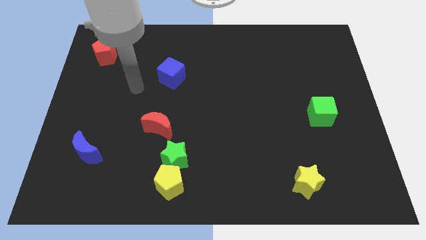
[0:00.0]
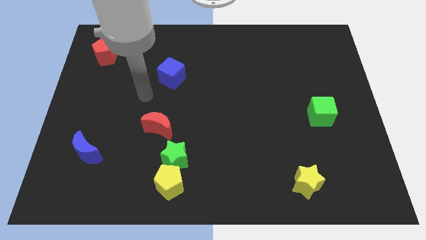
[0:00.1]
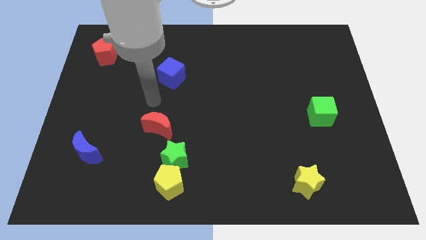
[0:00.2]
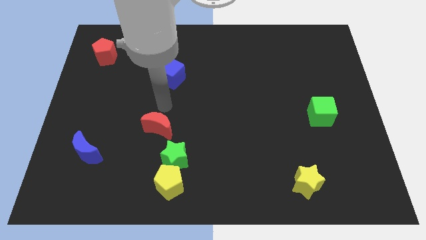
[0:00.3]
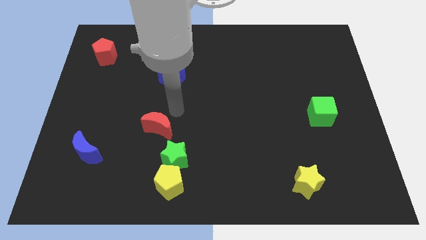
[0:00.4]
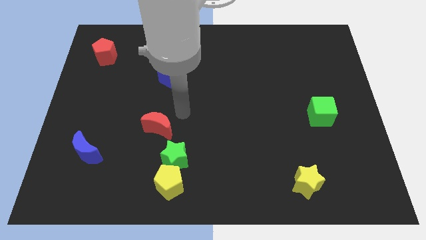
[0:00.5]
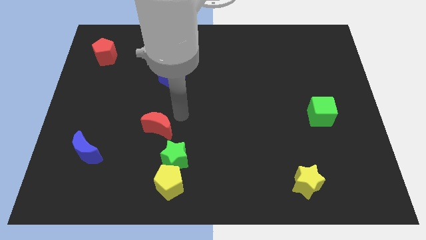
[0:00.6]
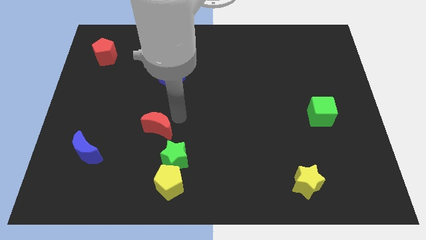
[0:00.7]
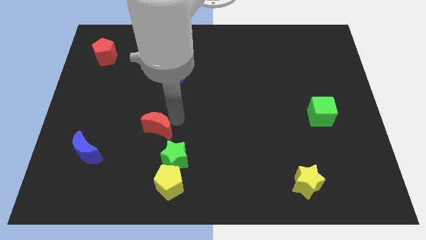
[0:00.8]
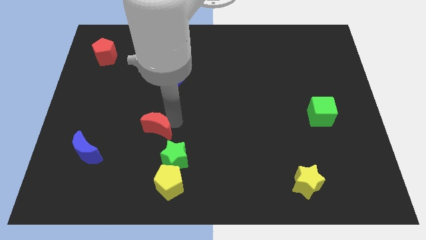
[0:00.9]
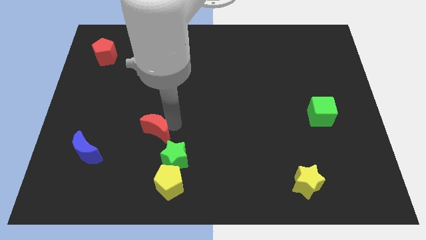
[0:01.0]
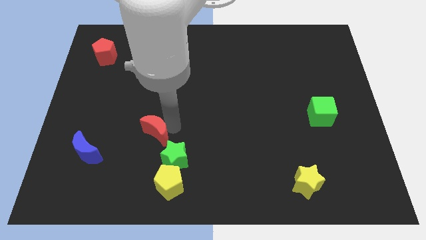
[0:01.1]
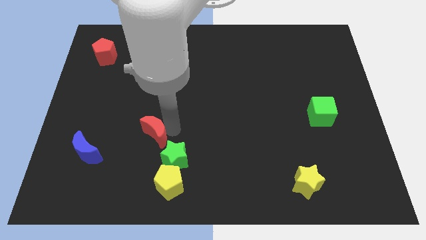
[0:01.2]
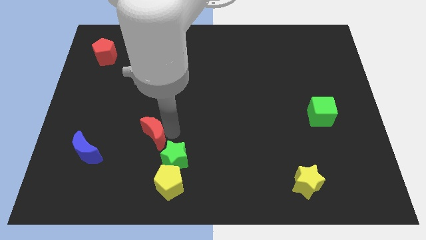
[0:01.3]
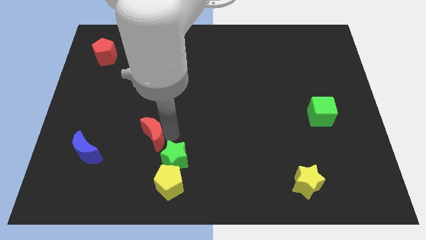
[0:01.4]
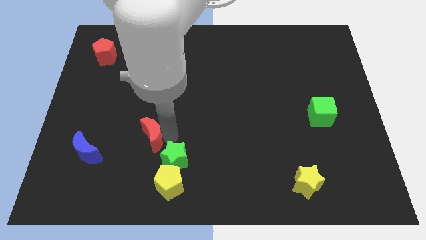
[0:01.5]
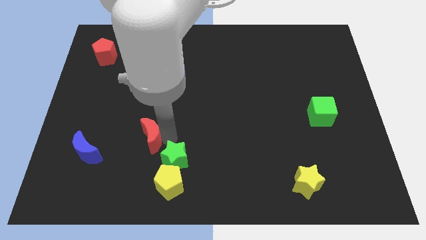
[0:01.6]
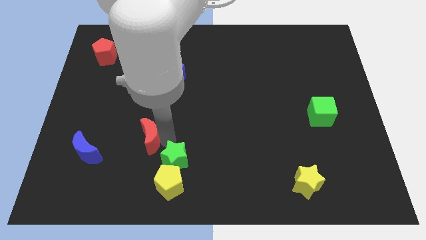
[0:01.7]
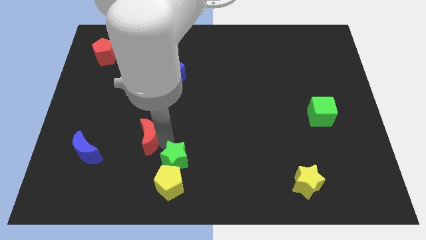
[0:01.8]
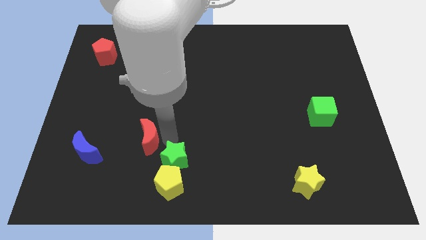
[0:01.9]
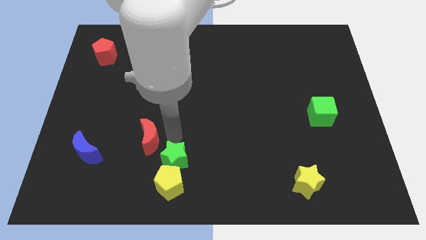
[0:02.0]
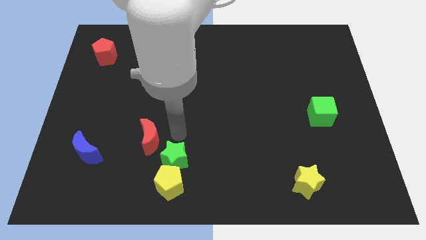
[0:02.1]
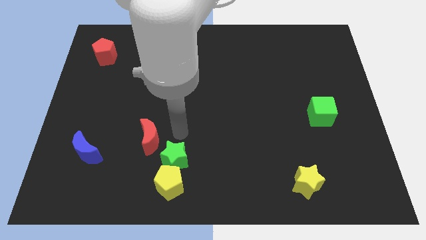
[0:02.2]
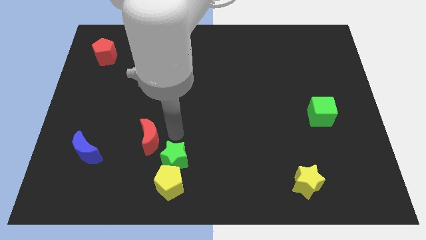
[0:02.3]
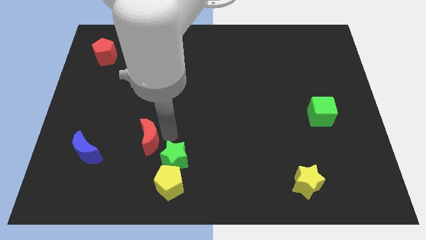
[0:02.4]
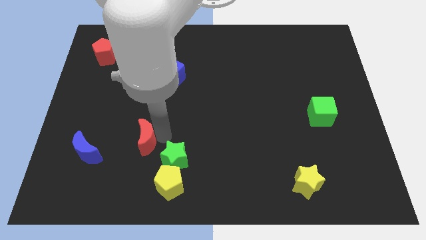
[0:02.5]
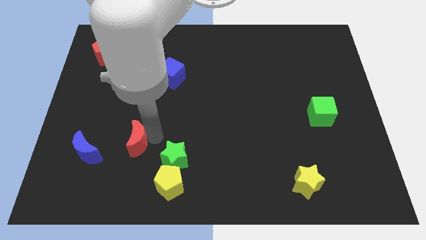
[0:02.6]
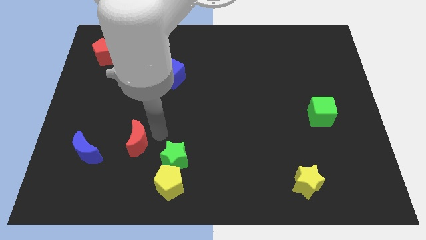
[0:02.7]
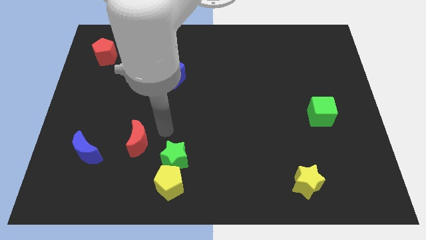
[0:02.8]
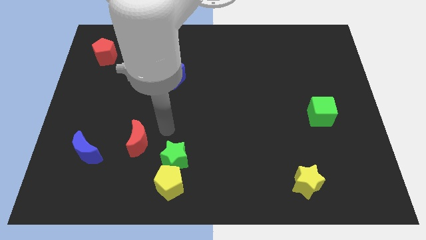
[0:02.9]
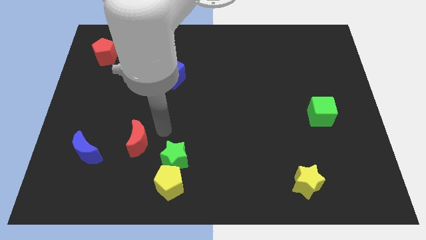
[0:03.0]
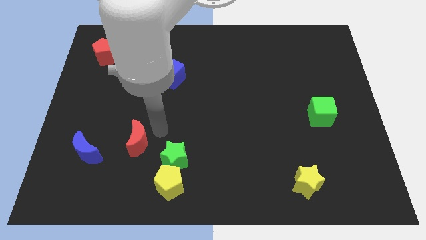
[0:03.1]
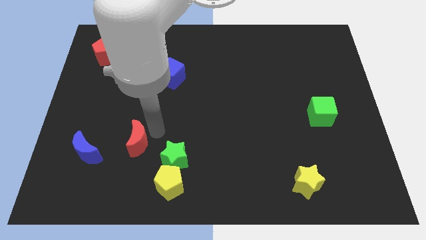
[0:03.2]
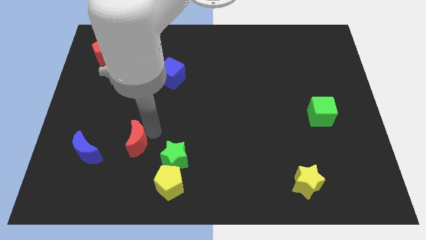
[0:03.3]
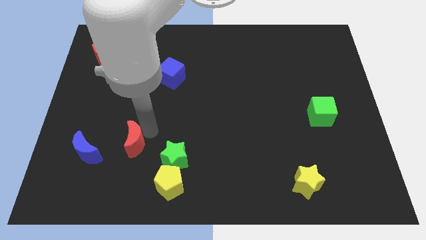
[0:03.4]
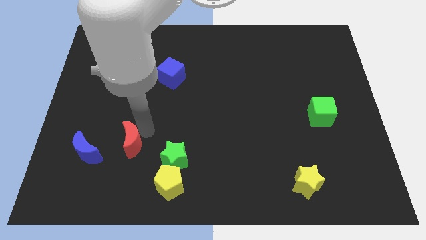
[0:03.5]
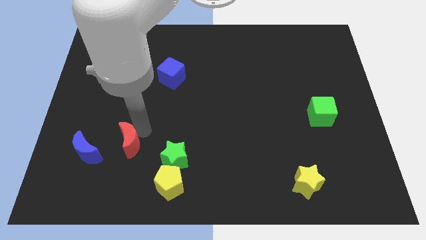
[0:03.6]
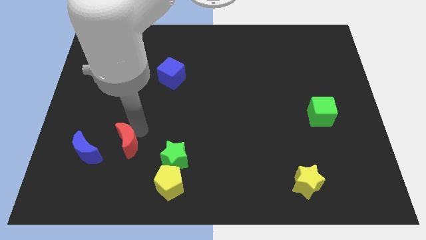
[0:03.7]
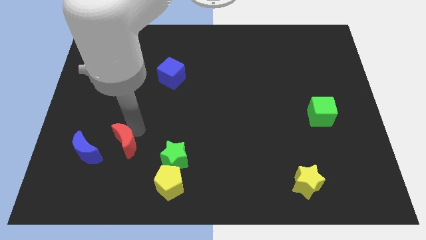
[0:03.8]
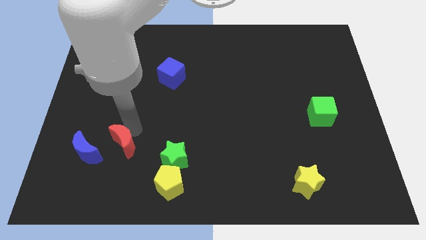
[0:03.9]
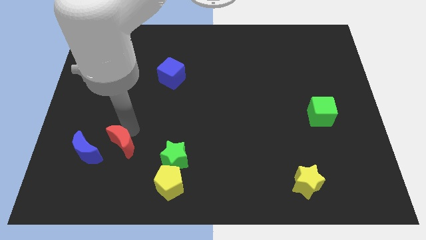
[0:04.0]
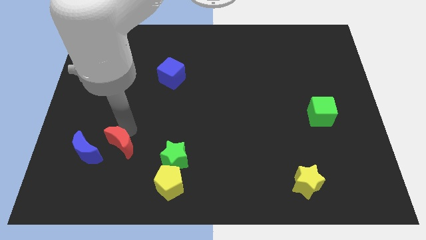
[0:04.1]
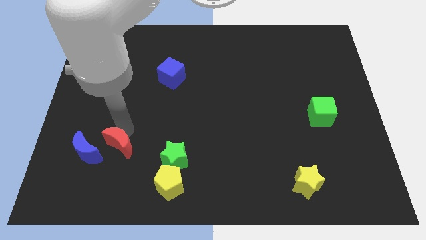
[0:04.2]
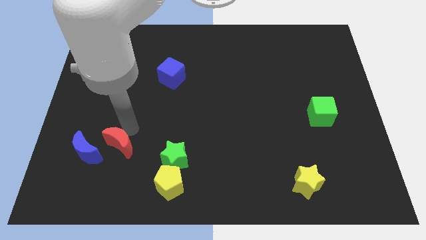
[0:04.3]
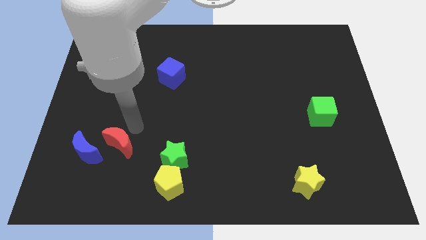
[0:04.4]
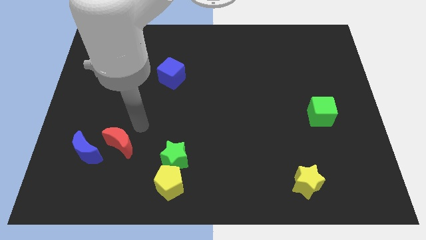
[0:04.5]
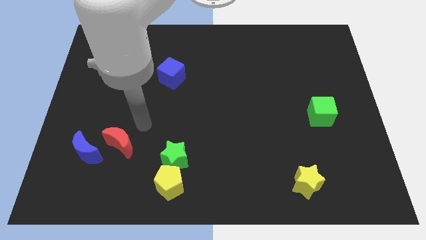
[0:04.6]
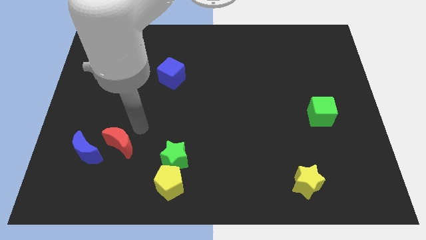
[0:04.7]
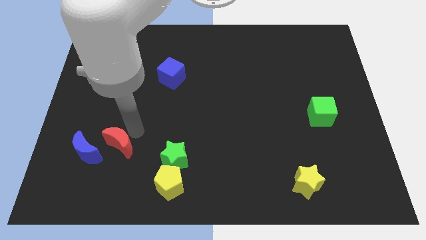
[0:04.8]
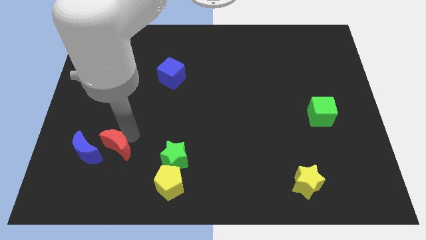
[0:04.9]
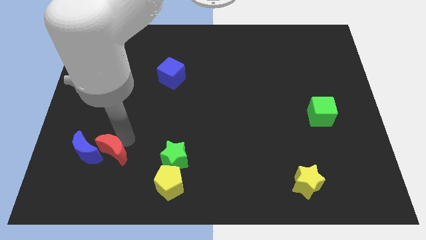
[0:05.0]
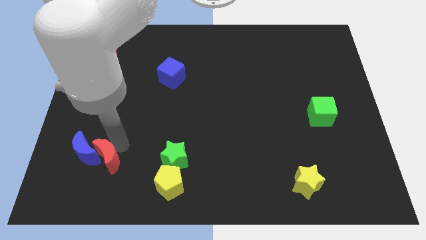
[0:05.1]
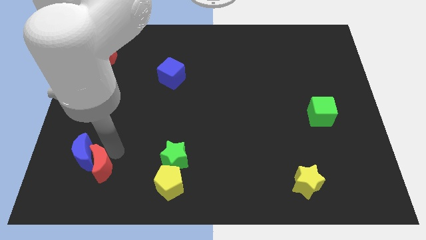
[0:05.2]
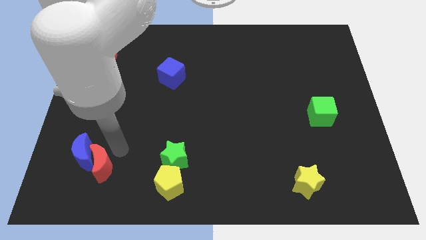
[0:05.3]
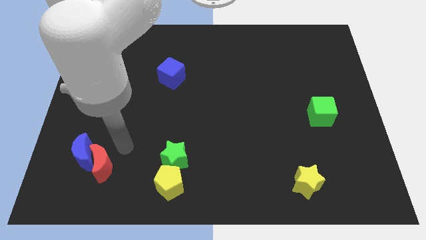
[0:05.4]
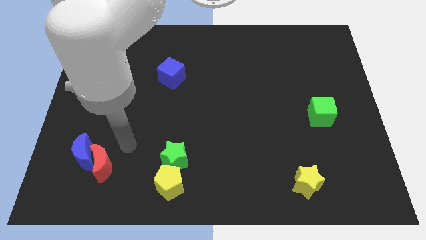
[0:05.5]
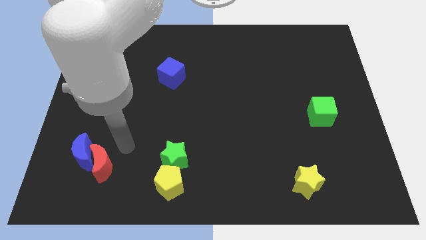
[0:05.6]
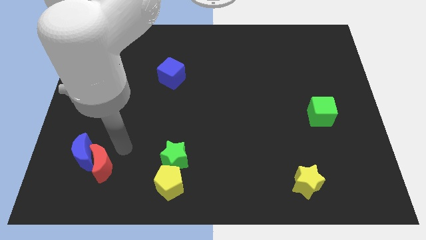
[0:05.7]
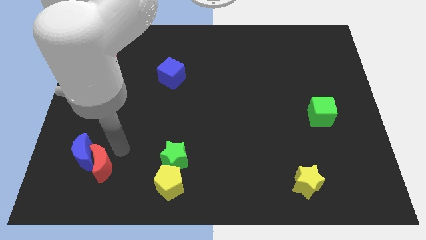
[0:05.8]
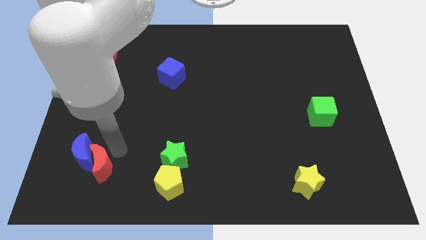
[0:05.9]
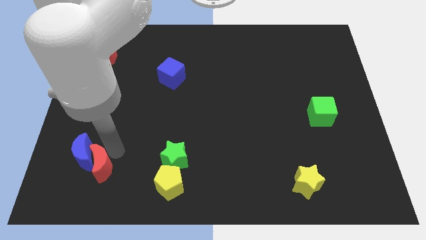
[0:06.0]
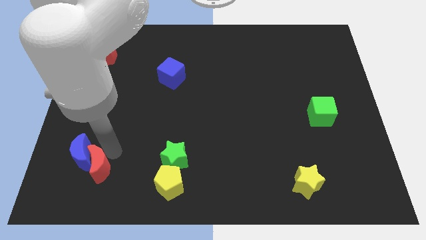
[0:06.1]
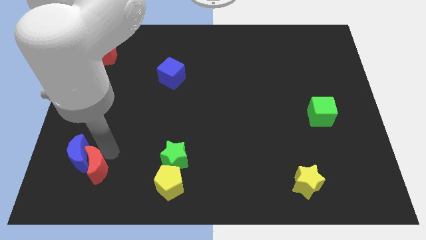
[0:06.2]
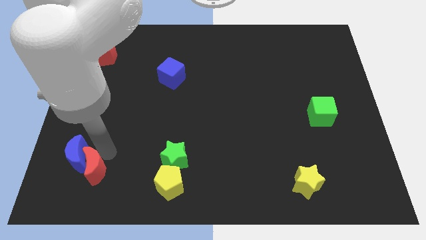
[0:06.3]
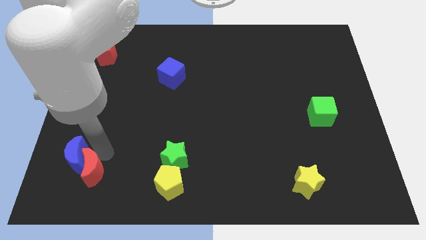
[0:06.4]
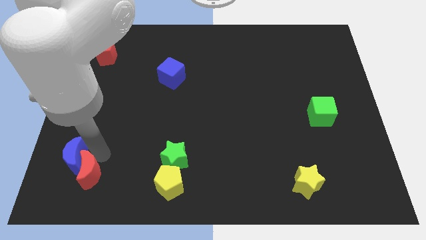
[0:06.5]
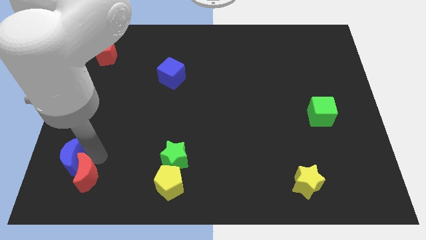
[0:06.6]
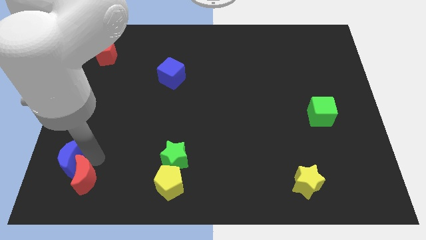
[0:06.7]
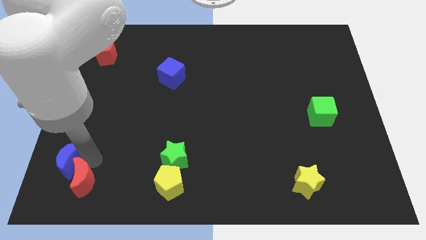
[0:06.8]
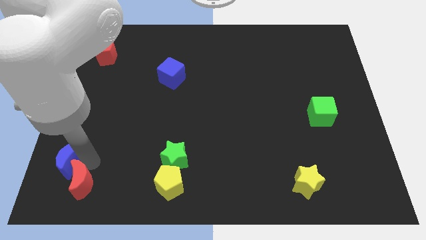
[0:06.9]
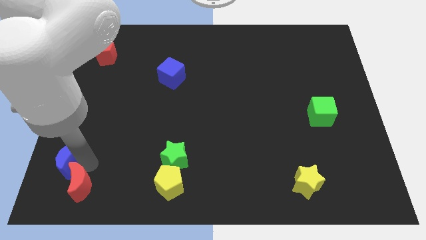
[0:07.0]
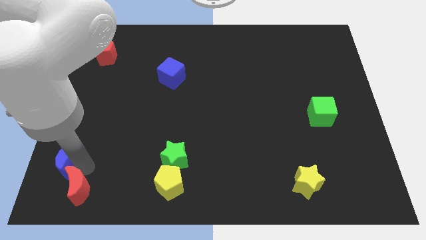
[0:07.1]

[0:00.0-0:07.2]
move the red moon to the bottom left corner
